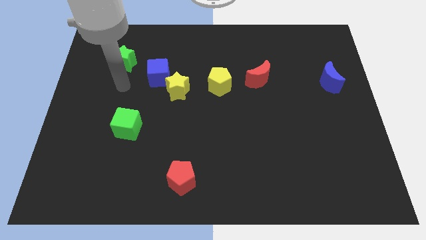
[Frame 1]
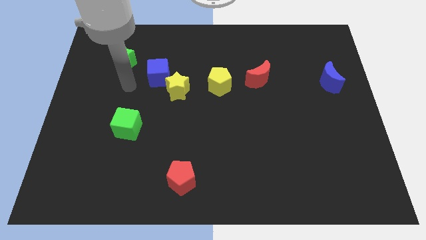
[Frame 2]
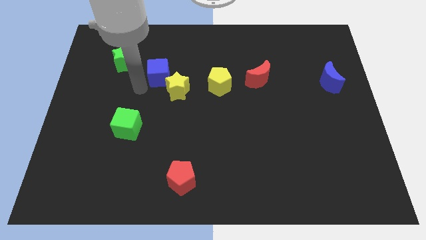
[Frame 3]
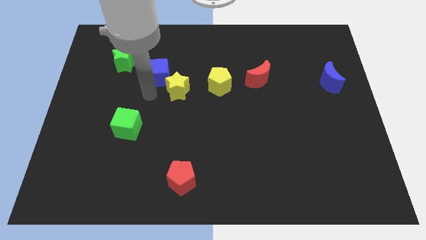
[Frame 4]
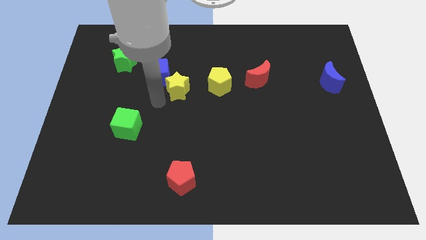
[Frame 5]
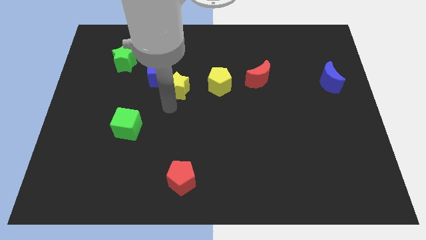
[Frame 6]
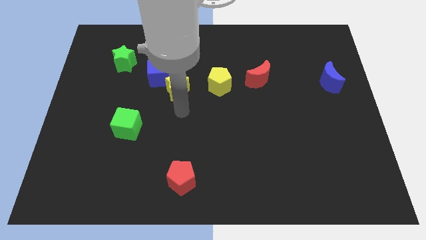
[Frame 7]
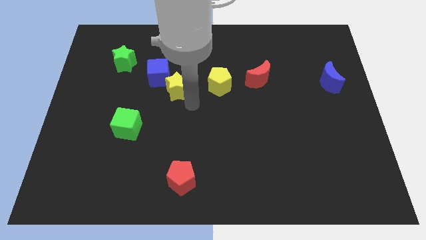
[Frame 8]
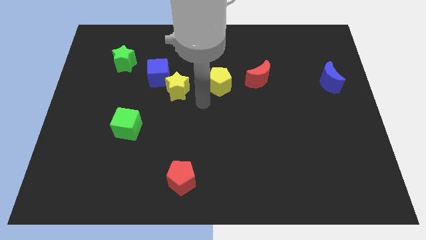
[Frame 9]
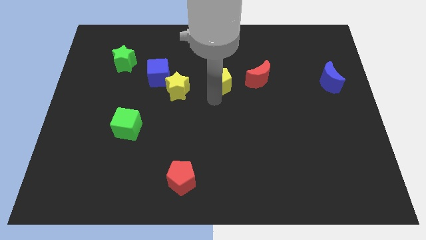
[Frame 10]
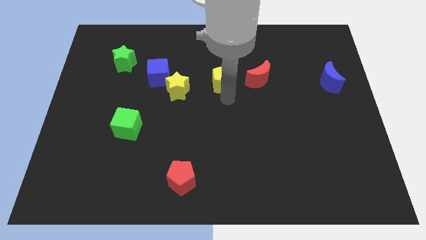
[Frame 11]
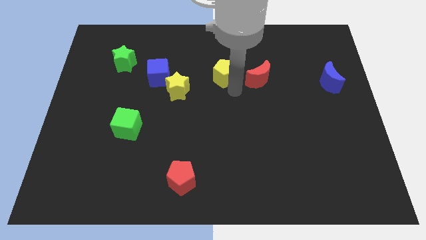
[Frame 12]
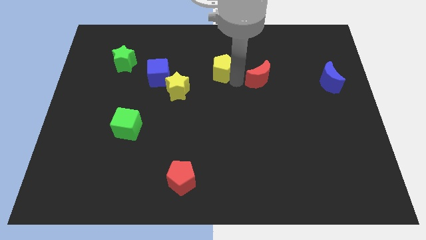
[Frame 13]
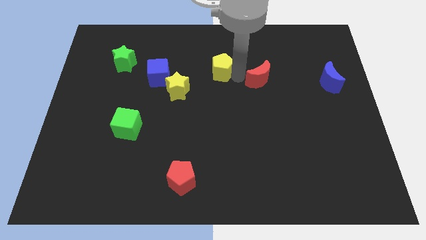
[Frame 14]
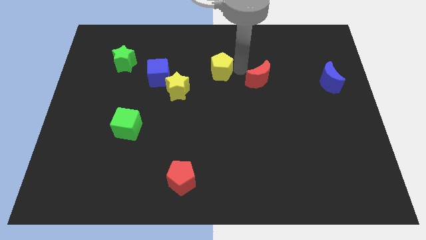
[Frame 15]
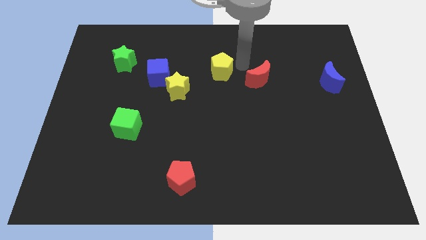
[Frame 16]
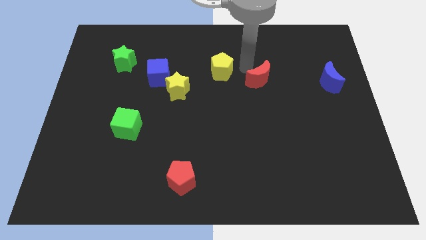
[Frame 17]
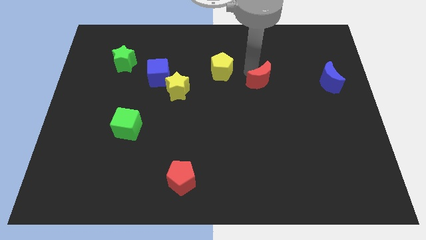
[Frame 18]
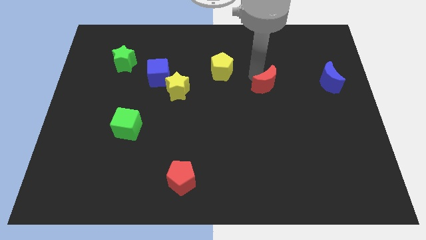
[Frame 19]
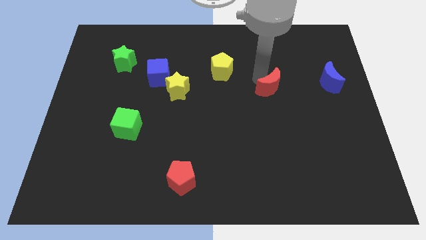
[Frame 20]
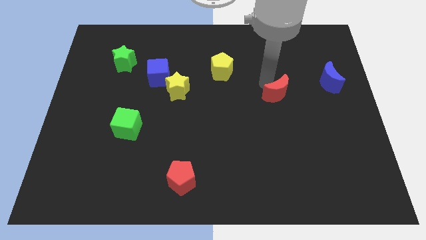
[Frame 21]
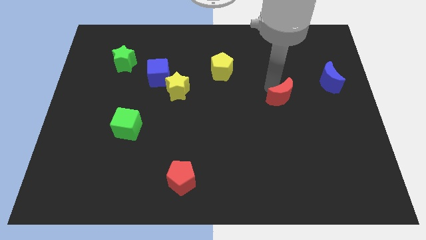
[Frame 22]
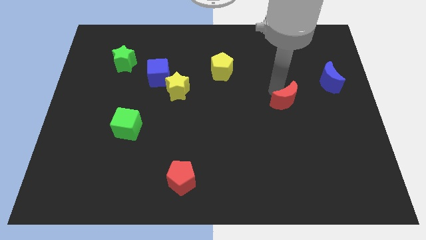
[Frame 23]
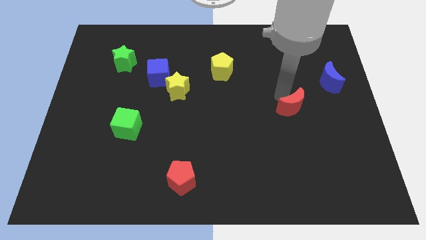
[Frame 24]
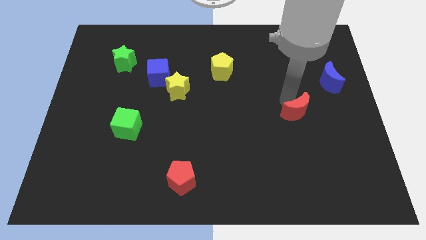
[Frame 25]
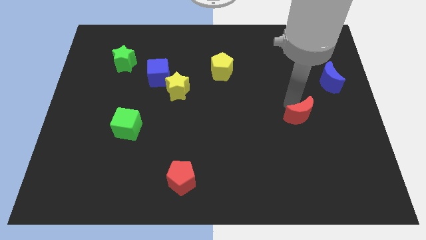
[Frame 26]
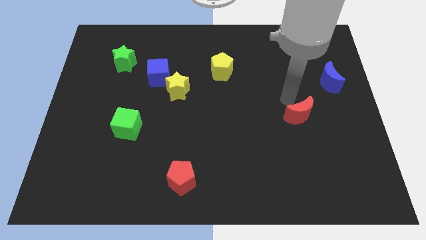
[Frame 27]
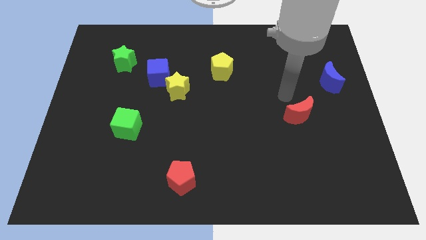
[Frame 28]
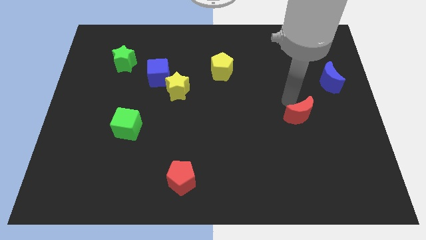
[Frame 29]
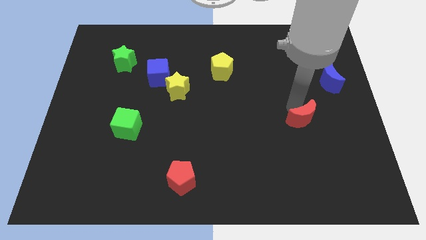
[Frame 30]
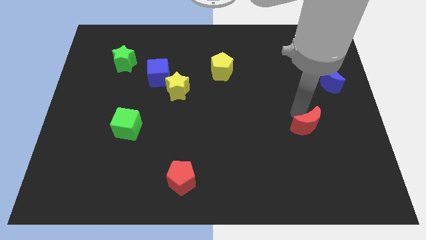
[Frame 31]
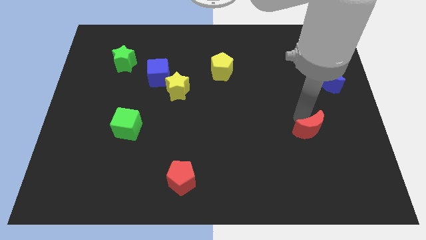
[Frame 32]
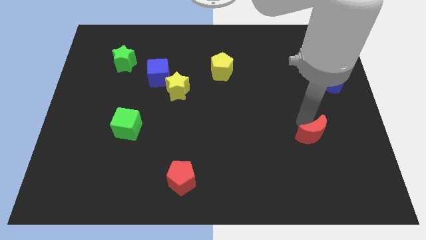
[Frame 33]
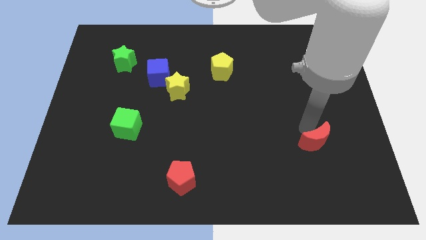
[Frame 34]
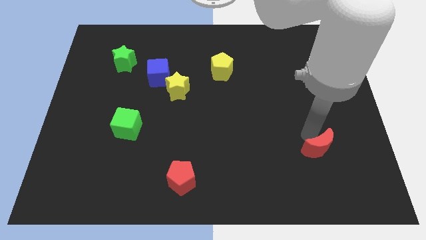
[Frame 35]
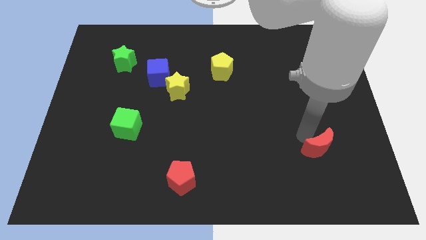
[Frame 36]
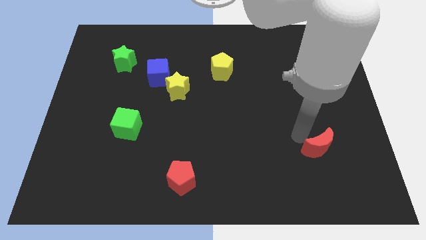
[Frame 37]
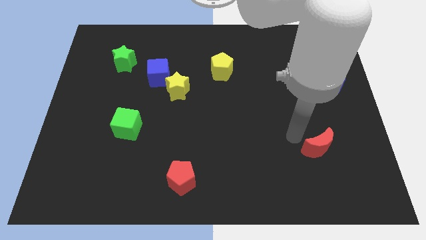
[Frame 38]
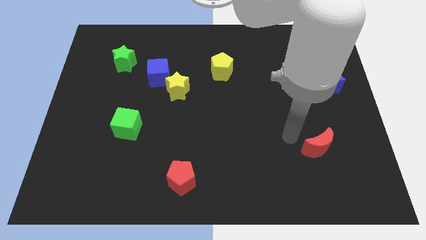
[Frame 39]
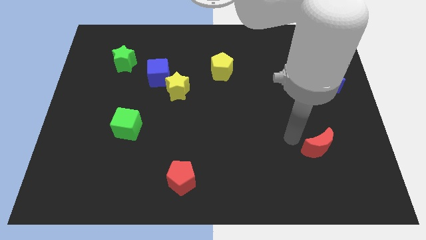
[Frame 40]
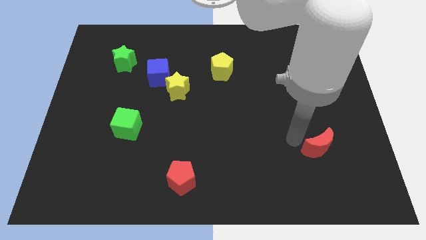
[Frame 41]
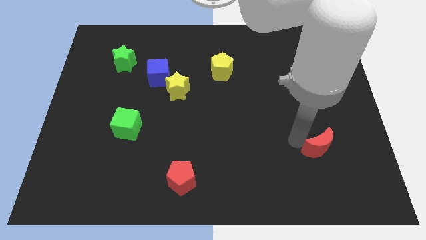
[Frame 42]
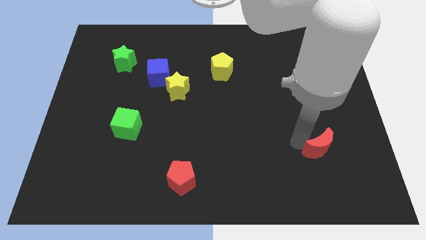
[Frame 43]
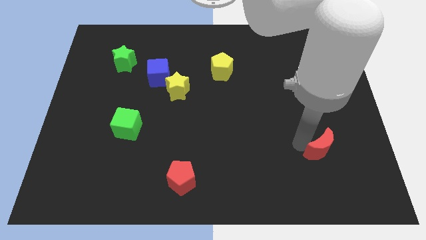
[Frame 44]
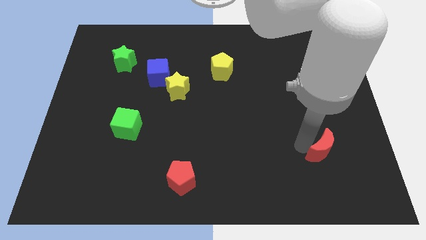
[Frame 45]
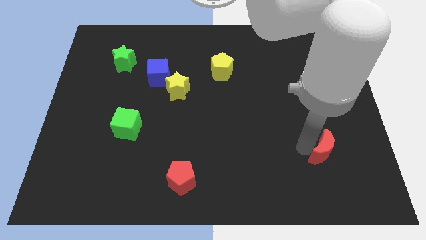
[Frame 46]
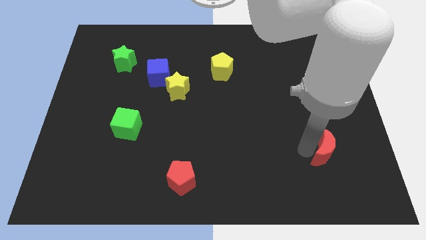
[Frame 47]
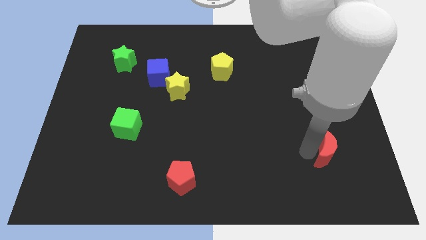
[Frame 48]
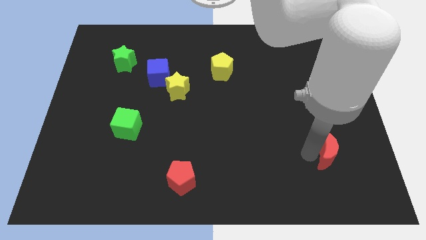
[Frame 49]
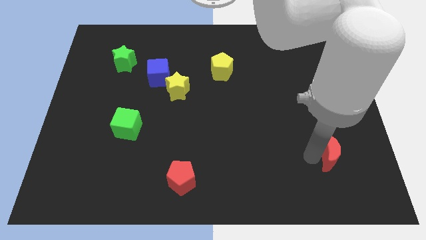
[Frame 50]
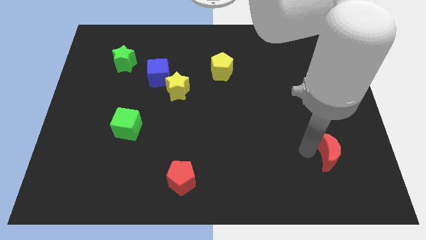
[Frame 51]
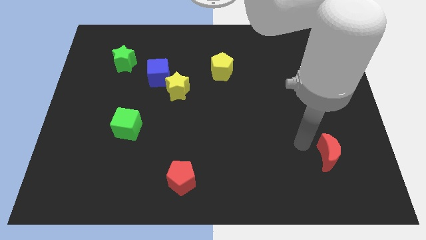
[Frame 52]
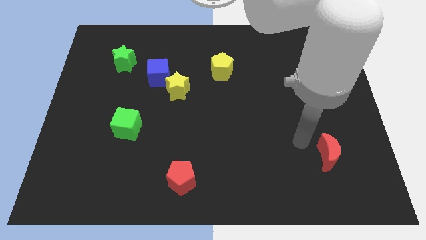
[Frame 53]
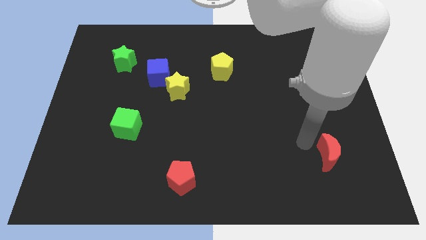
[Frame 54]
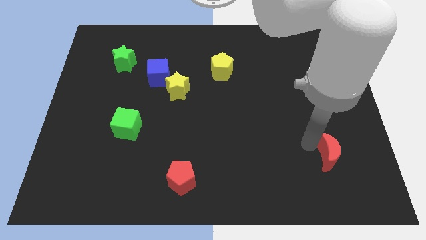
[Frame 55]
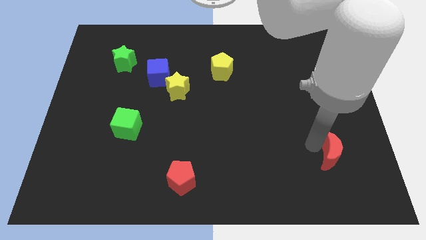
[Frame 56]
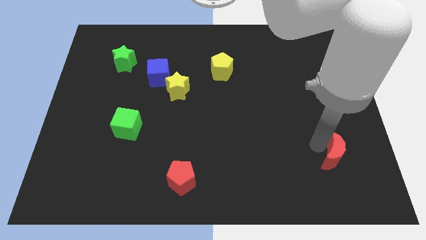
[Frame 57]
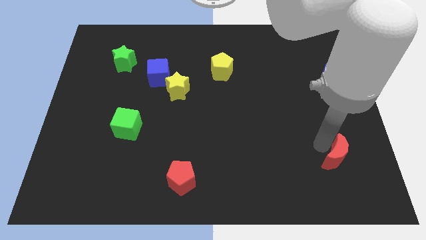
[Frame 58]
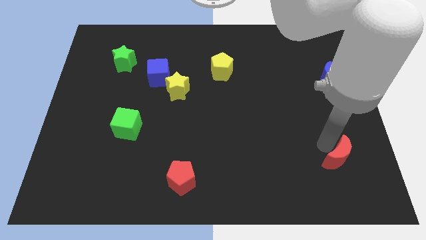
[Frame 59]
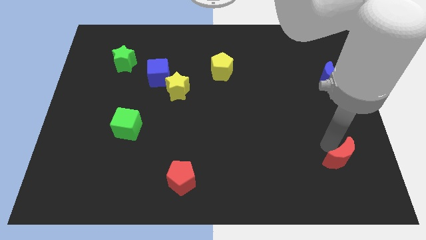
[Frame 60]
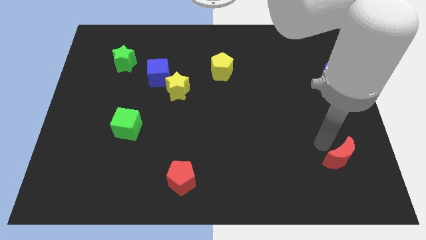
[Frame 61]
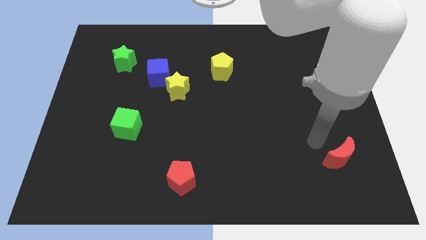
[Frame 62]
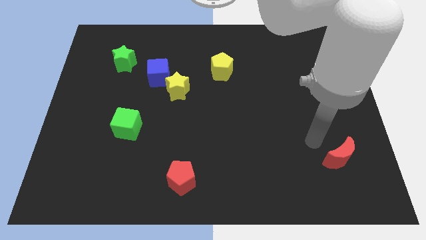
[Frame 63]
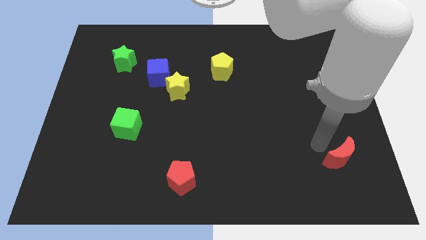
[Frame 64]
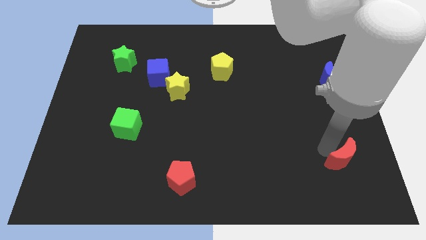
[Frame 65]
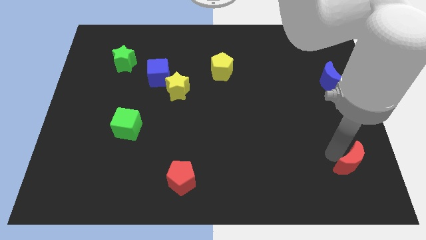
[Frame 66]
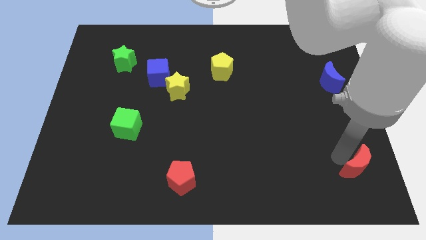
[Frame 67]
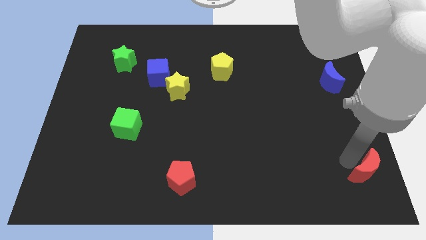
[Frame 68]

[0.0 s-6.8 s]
put the red moon to the bottom right of the board
